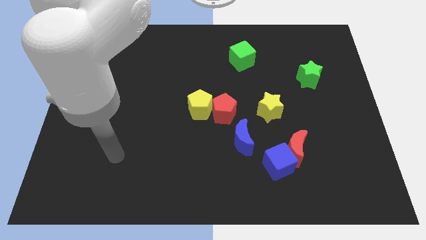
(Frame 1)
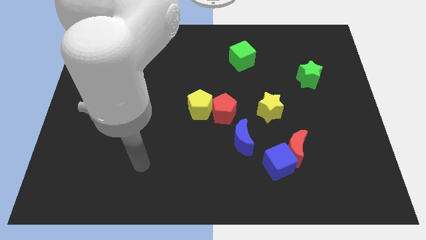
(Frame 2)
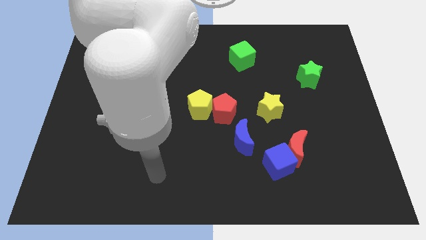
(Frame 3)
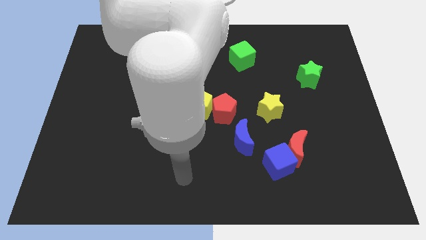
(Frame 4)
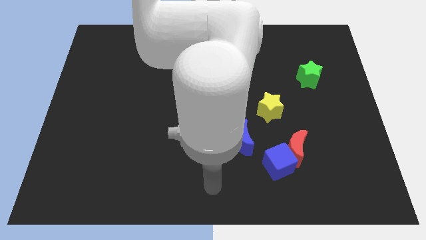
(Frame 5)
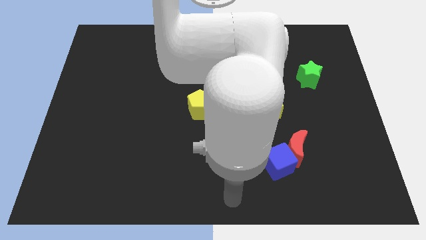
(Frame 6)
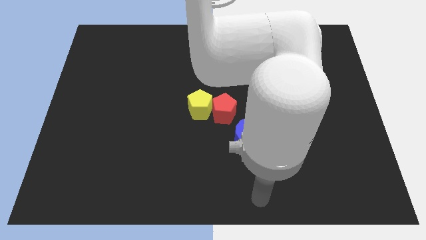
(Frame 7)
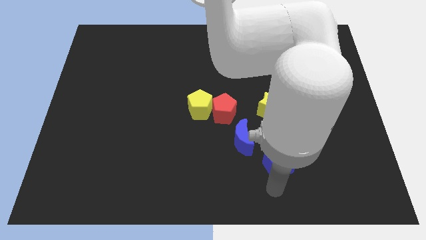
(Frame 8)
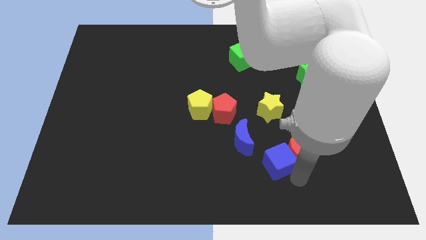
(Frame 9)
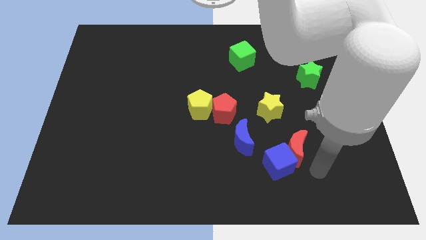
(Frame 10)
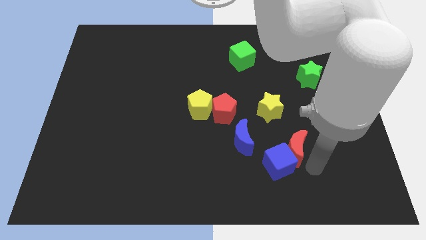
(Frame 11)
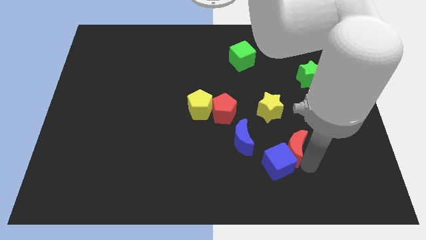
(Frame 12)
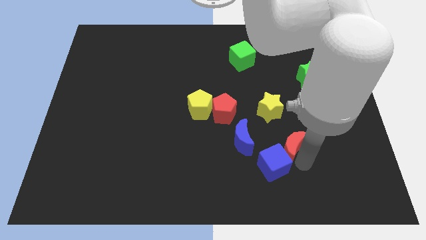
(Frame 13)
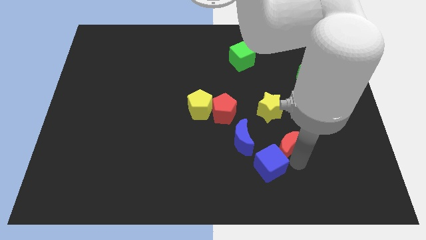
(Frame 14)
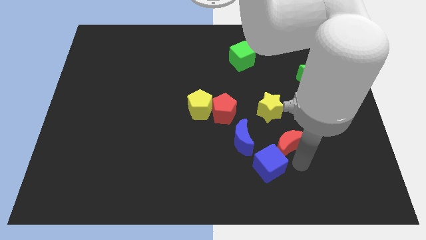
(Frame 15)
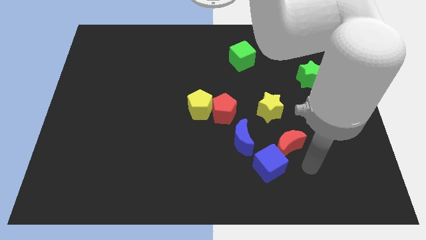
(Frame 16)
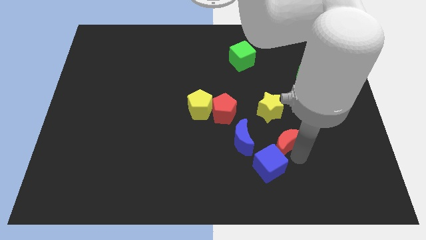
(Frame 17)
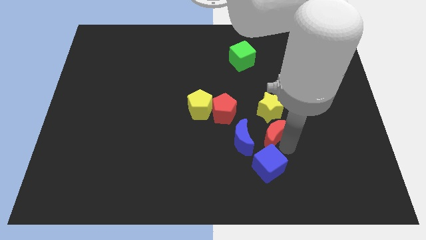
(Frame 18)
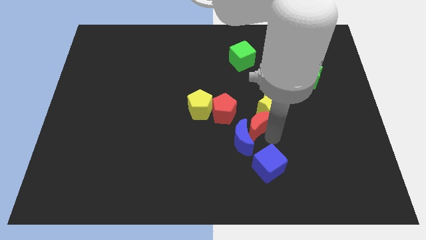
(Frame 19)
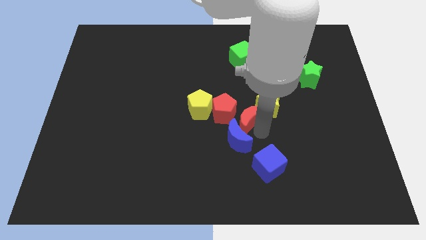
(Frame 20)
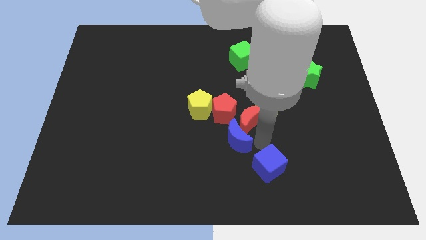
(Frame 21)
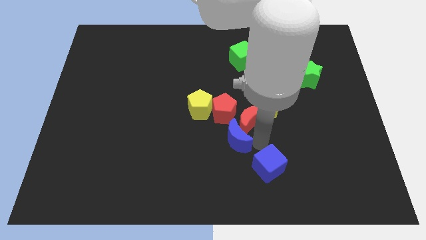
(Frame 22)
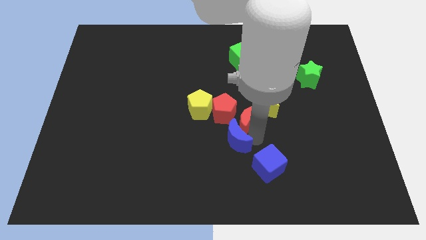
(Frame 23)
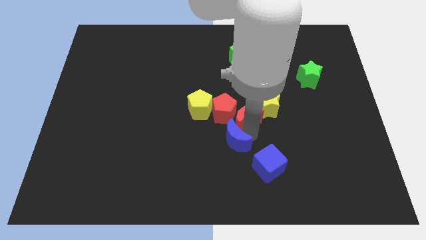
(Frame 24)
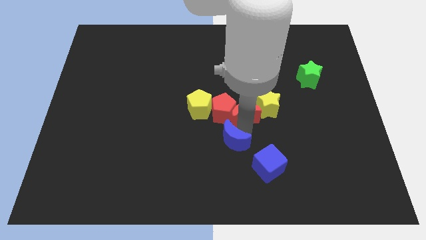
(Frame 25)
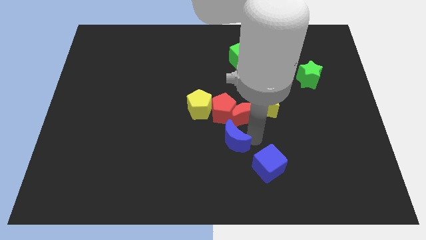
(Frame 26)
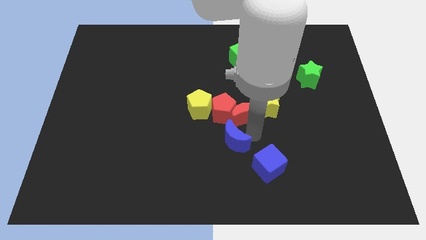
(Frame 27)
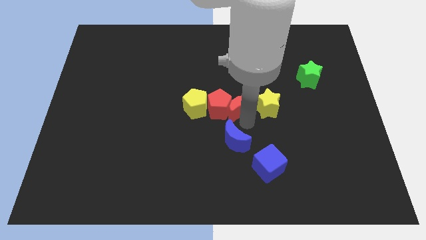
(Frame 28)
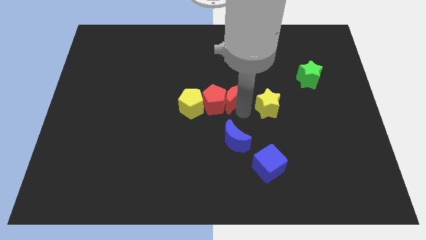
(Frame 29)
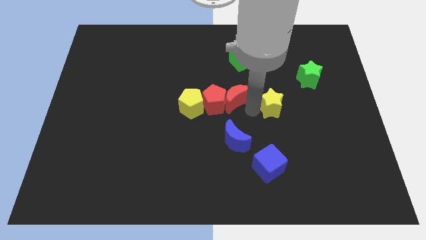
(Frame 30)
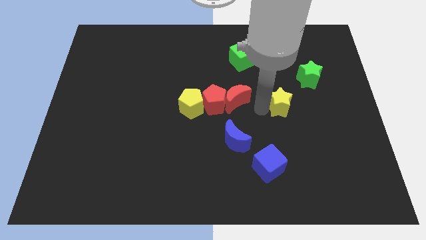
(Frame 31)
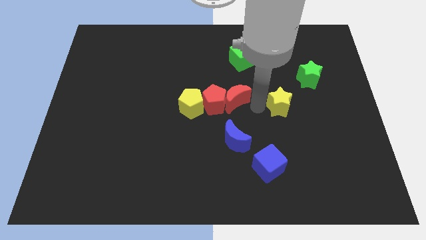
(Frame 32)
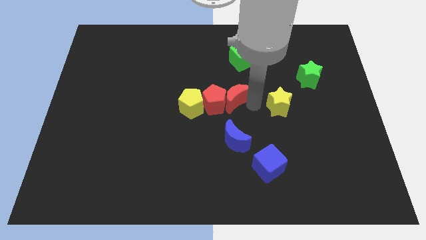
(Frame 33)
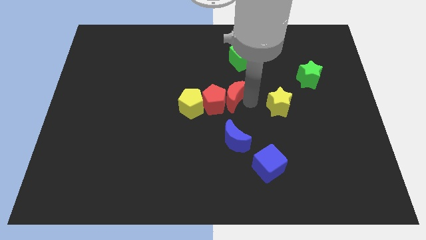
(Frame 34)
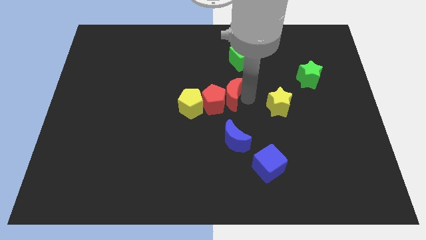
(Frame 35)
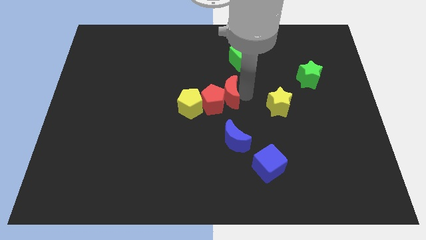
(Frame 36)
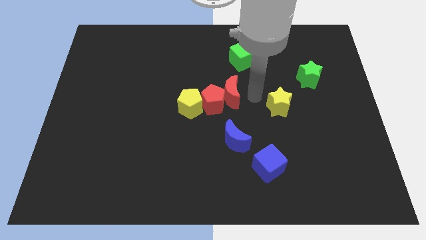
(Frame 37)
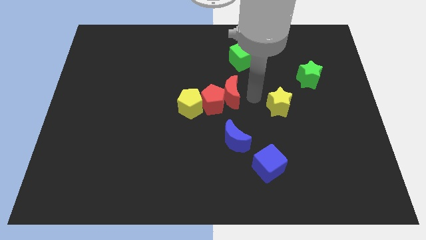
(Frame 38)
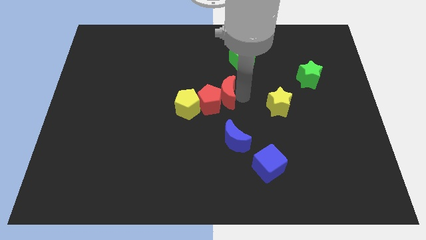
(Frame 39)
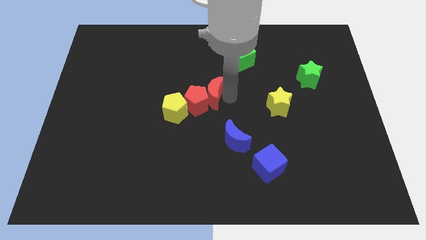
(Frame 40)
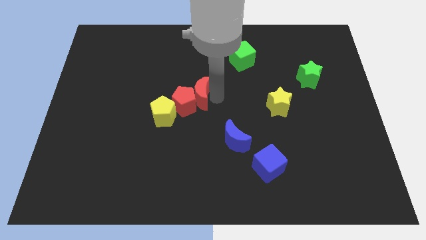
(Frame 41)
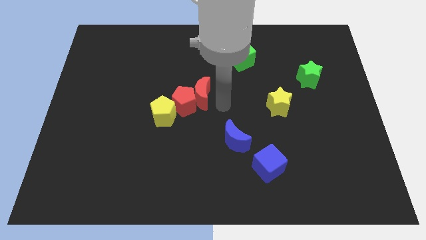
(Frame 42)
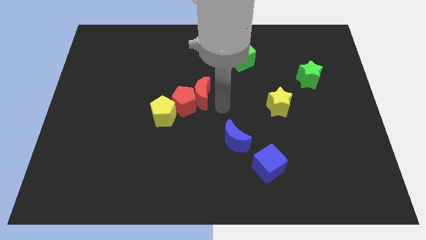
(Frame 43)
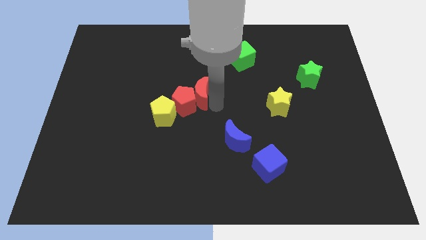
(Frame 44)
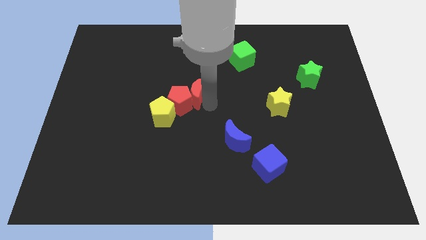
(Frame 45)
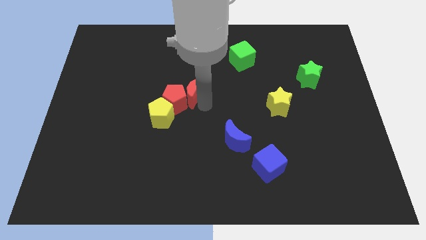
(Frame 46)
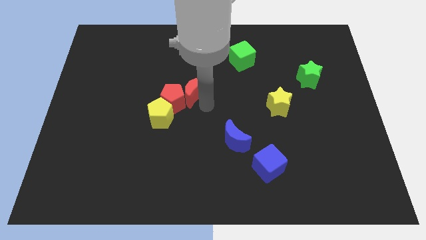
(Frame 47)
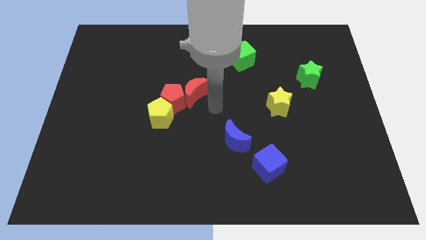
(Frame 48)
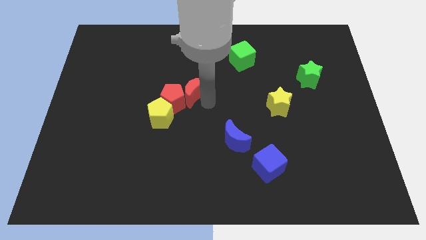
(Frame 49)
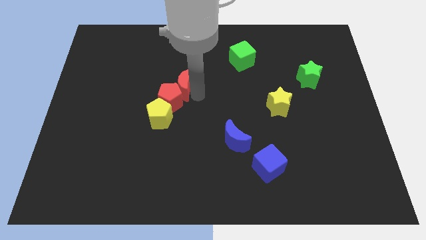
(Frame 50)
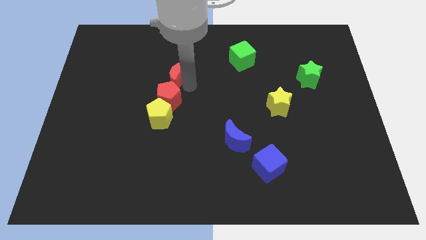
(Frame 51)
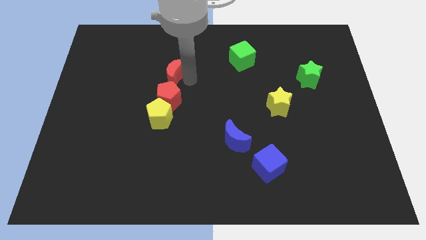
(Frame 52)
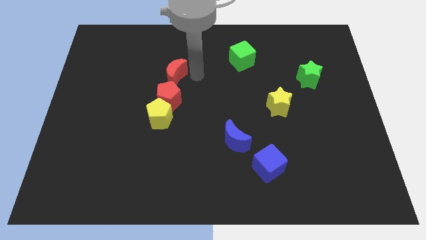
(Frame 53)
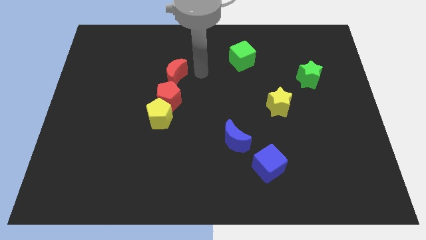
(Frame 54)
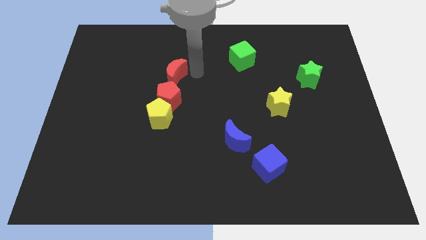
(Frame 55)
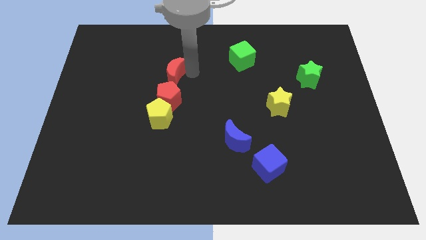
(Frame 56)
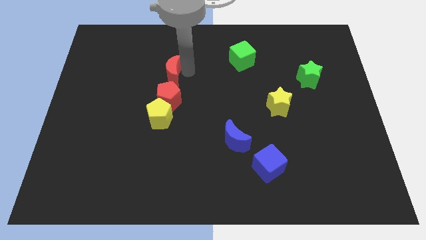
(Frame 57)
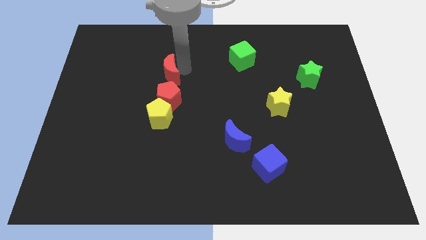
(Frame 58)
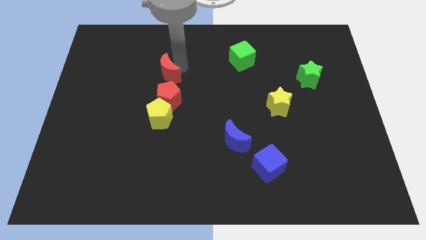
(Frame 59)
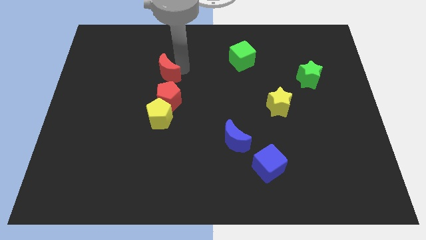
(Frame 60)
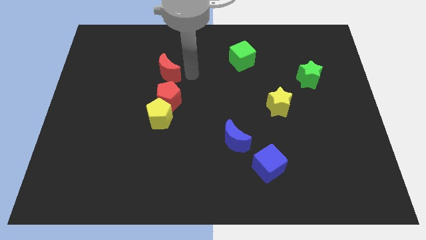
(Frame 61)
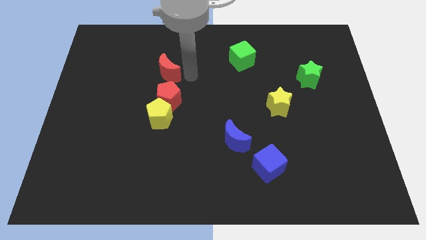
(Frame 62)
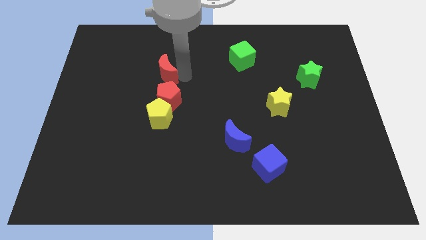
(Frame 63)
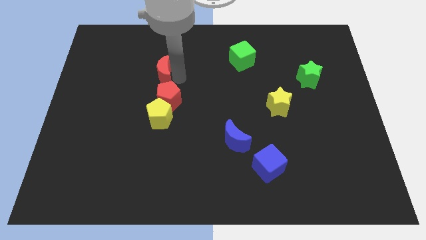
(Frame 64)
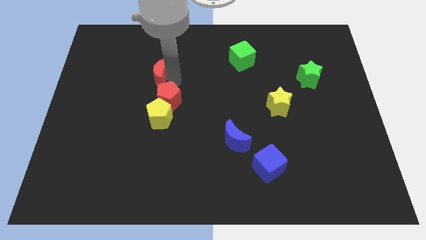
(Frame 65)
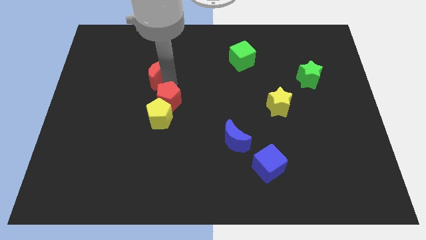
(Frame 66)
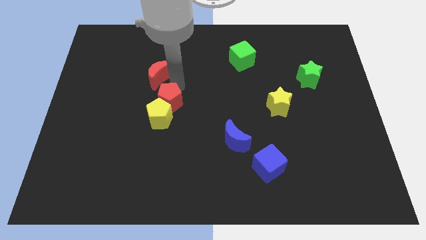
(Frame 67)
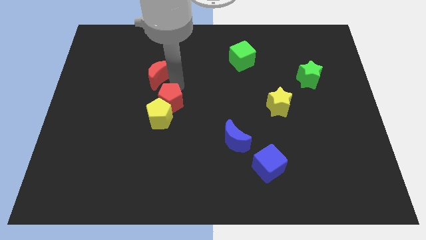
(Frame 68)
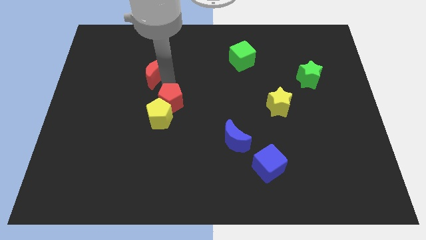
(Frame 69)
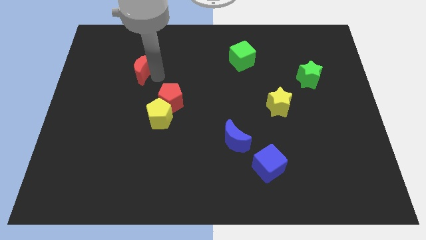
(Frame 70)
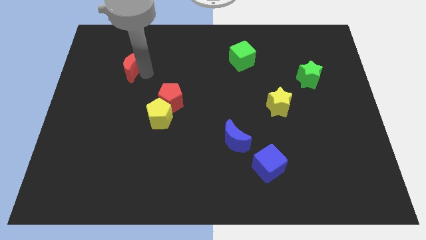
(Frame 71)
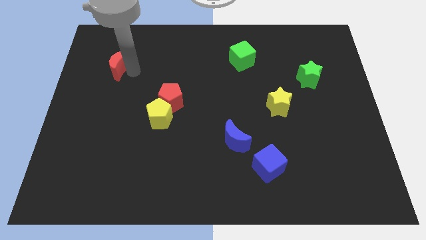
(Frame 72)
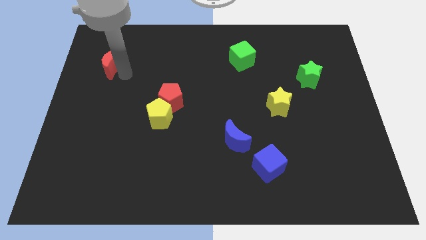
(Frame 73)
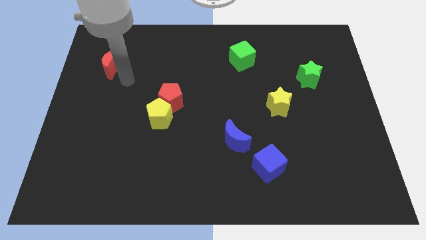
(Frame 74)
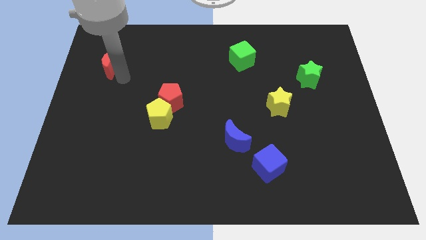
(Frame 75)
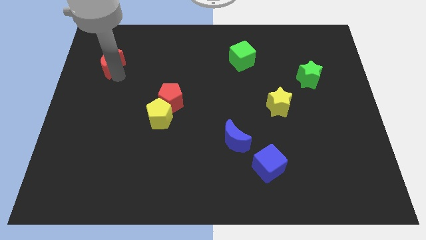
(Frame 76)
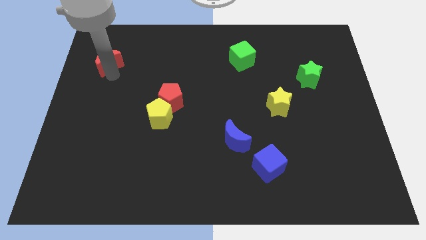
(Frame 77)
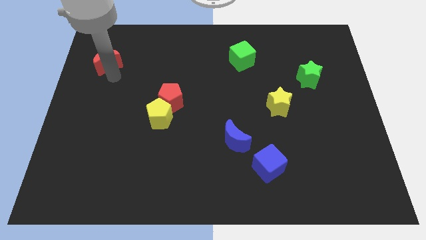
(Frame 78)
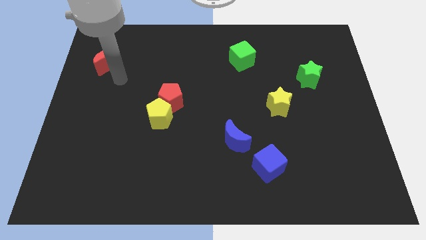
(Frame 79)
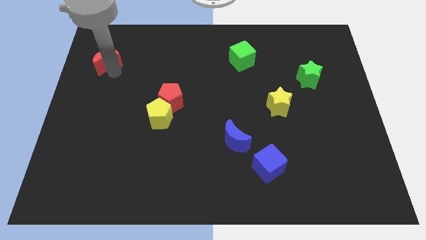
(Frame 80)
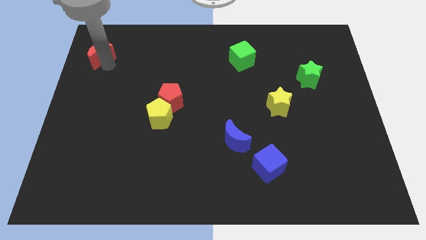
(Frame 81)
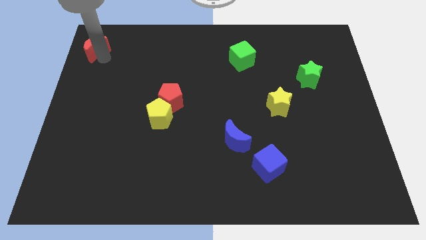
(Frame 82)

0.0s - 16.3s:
slide the red moon to the top left of the board
